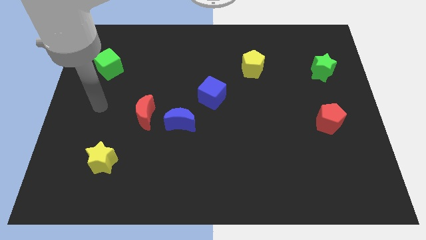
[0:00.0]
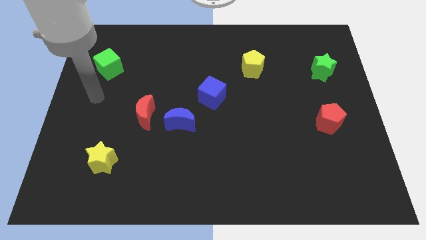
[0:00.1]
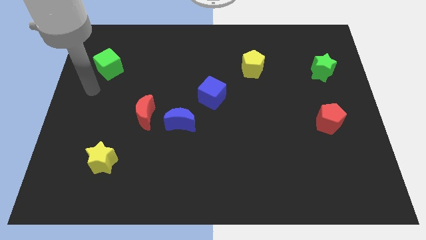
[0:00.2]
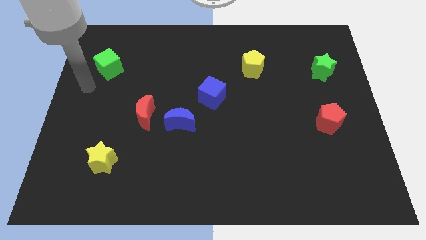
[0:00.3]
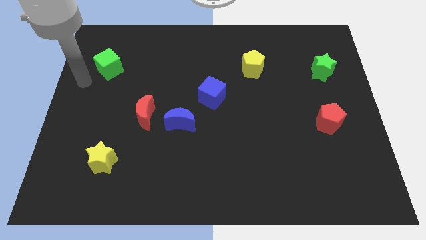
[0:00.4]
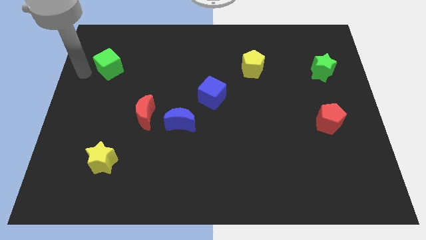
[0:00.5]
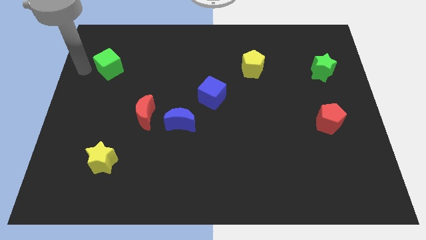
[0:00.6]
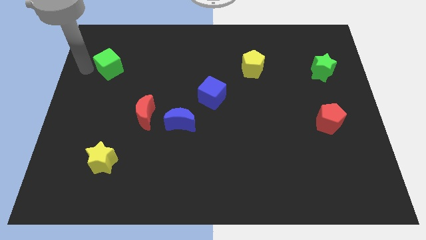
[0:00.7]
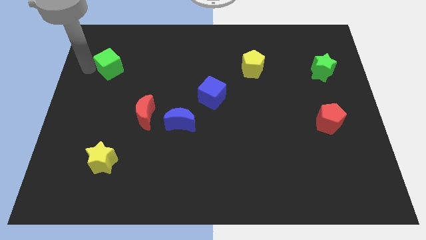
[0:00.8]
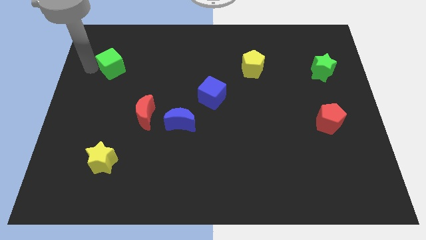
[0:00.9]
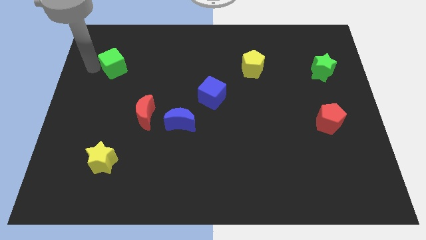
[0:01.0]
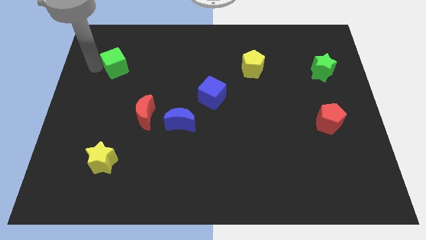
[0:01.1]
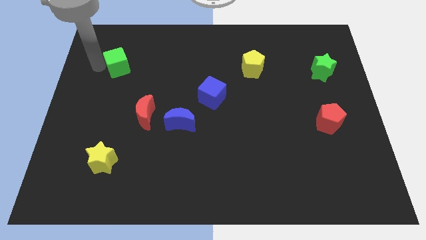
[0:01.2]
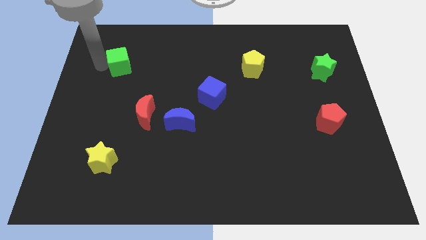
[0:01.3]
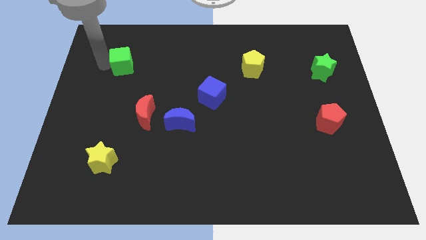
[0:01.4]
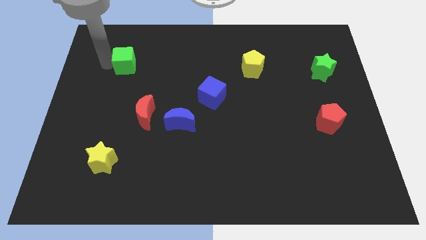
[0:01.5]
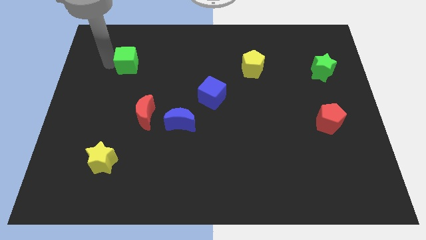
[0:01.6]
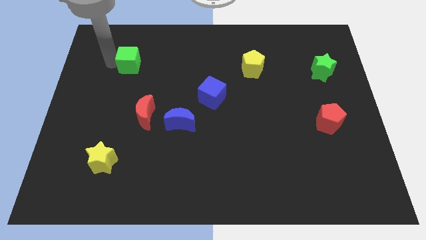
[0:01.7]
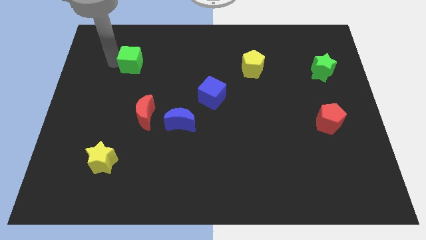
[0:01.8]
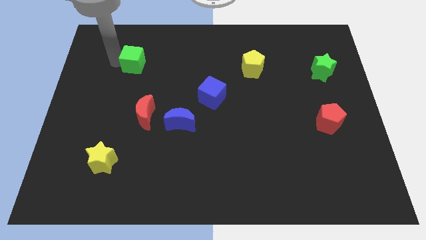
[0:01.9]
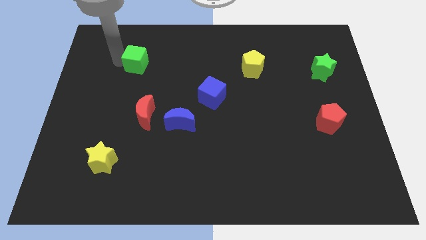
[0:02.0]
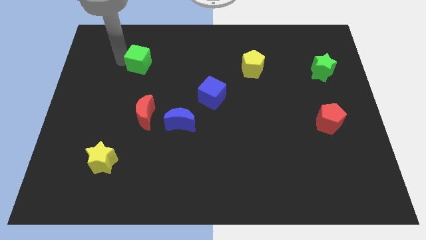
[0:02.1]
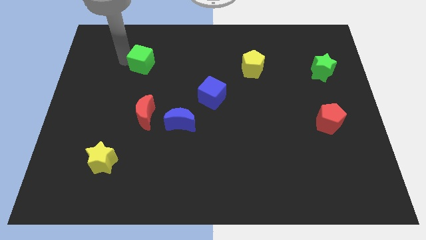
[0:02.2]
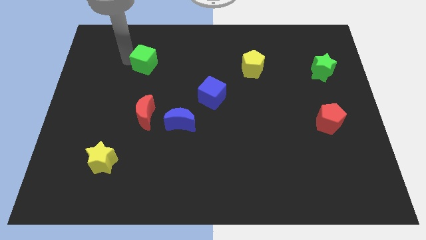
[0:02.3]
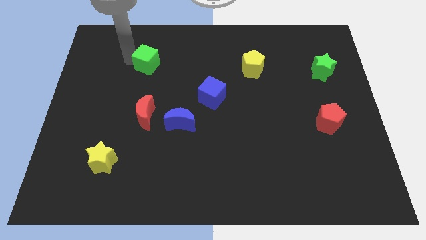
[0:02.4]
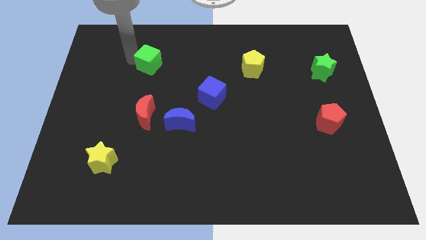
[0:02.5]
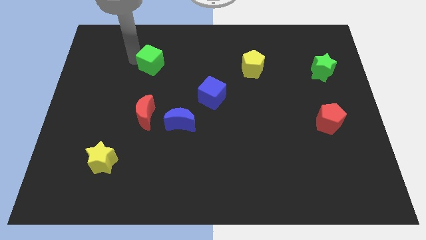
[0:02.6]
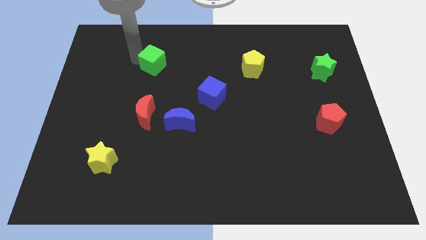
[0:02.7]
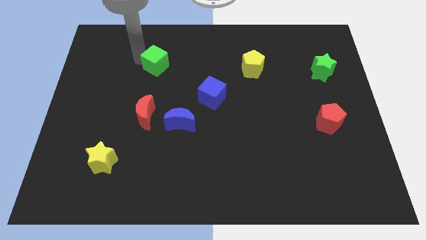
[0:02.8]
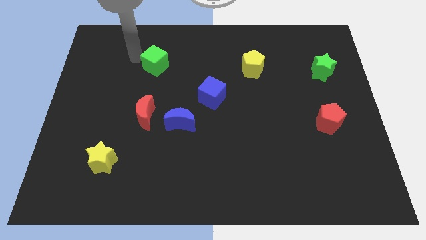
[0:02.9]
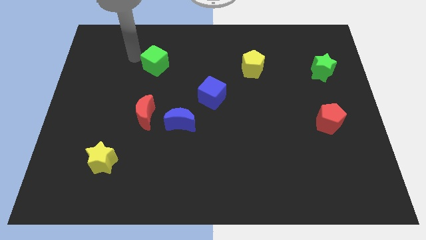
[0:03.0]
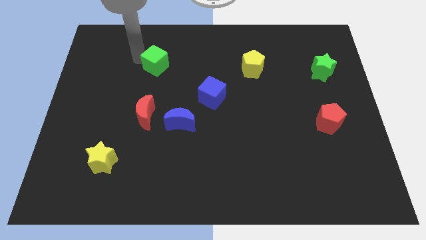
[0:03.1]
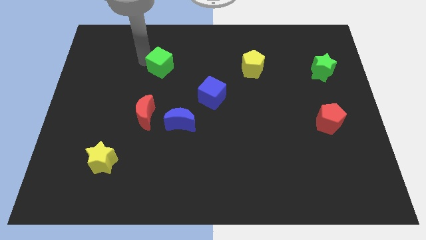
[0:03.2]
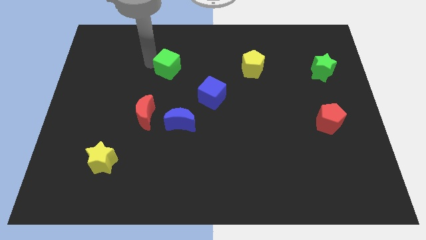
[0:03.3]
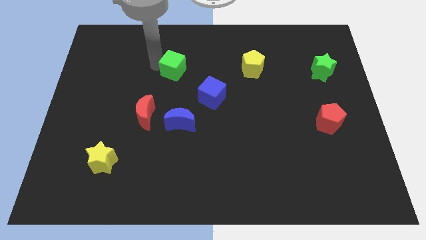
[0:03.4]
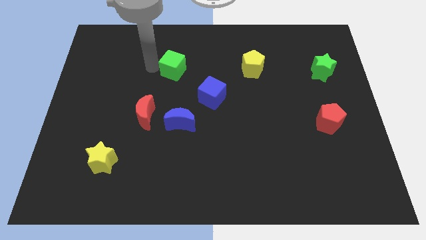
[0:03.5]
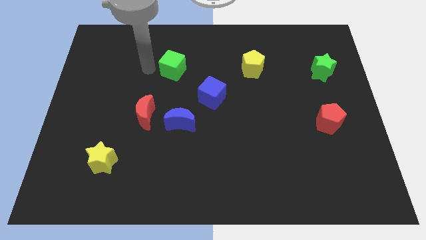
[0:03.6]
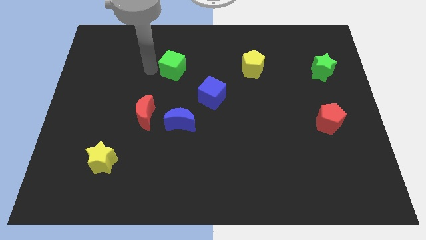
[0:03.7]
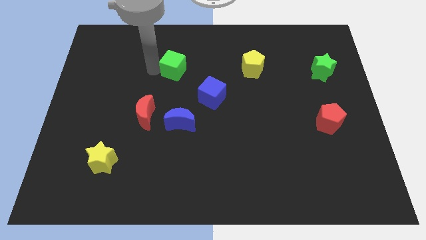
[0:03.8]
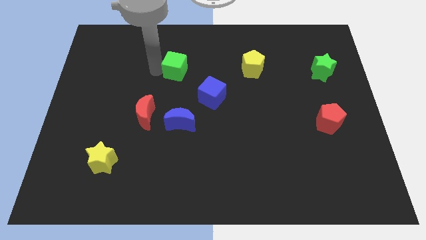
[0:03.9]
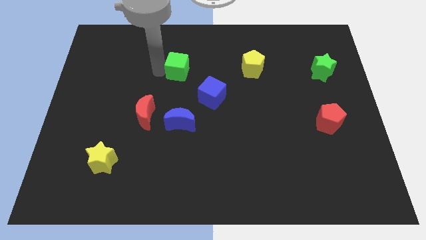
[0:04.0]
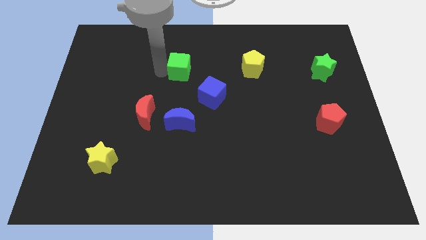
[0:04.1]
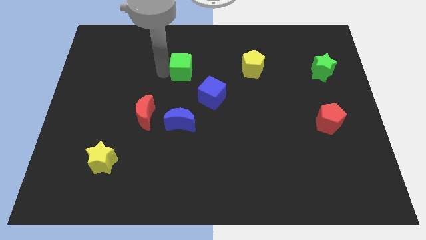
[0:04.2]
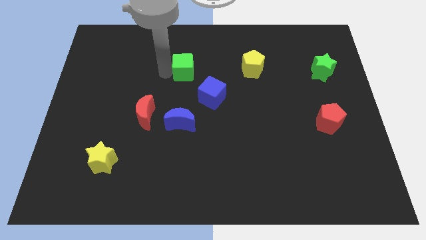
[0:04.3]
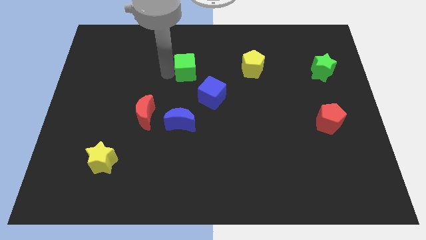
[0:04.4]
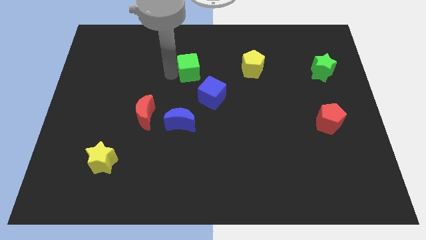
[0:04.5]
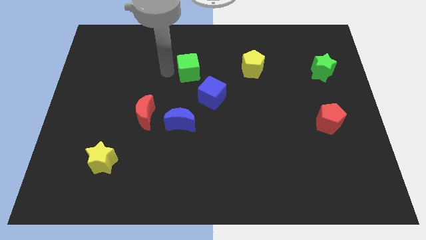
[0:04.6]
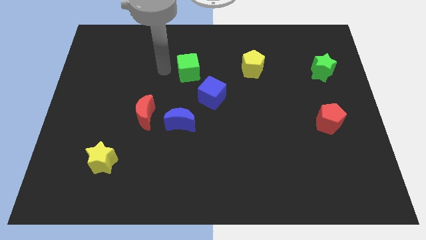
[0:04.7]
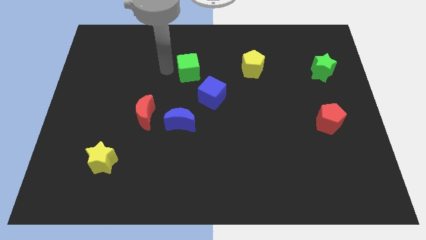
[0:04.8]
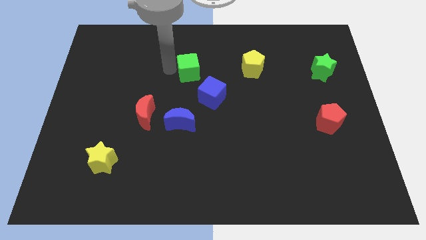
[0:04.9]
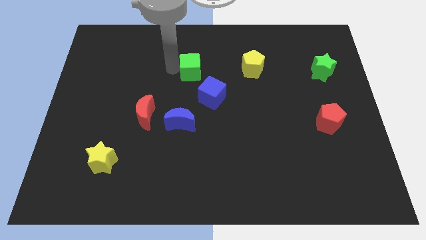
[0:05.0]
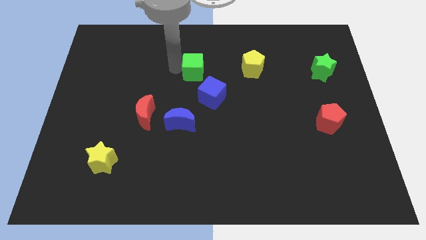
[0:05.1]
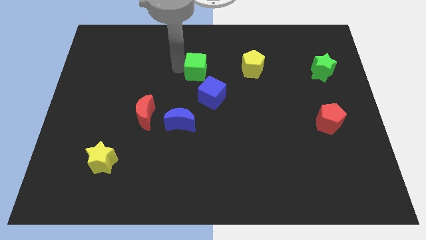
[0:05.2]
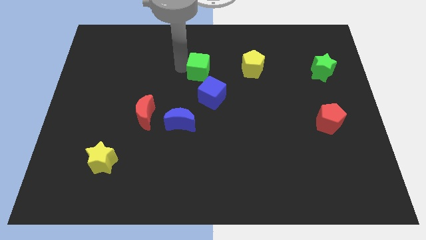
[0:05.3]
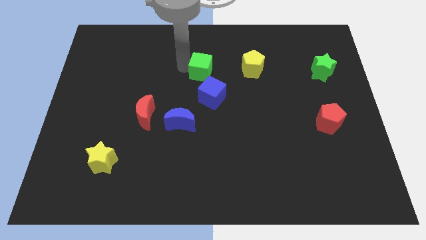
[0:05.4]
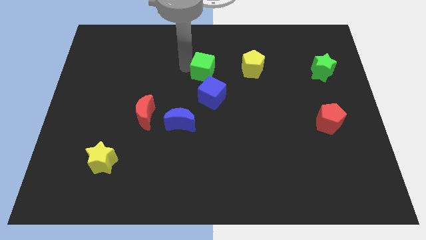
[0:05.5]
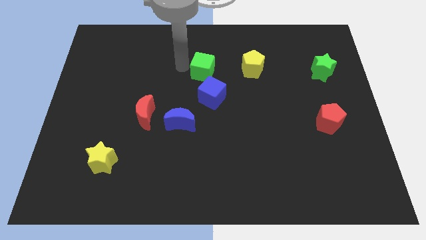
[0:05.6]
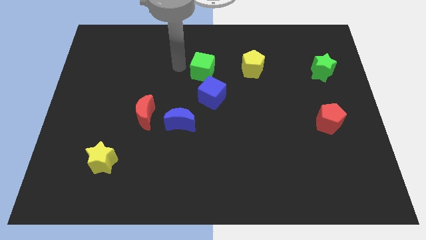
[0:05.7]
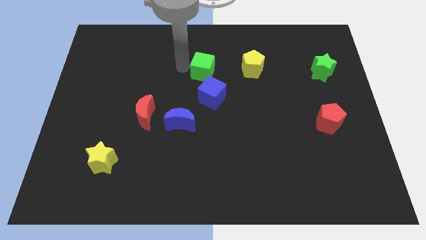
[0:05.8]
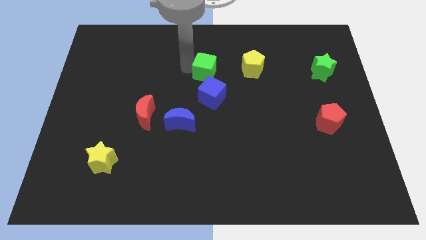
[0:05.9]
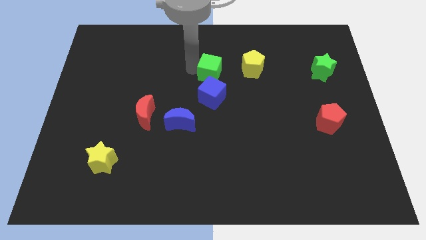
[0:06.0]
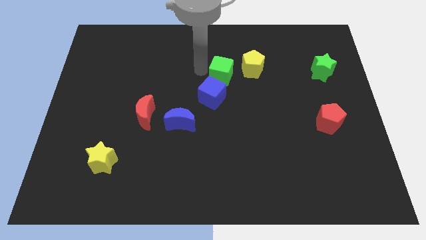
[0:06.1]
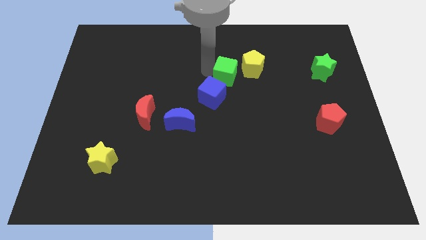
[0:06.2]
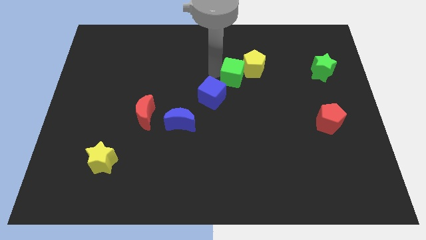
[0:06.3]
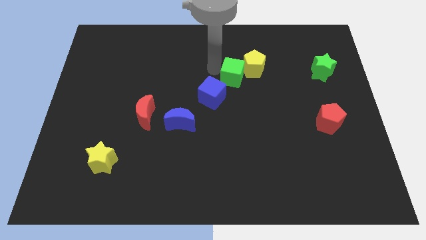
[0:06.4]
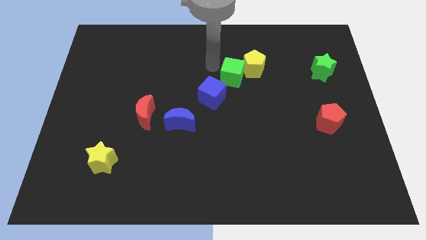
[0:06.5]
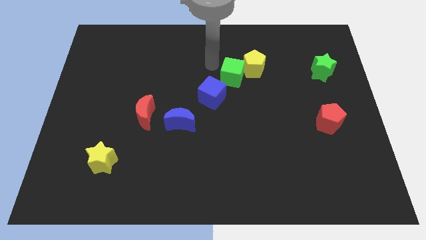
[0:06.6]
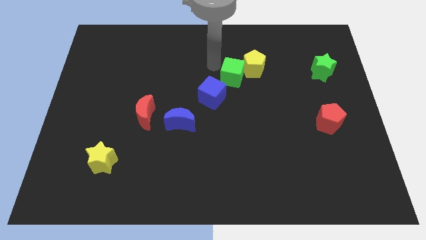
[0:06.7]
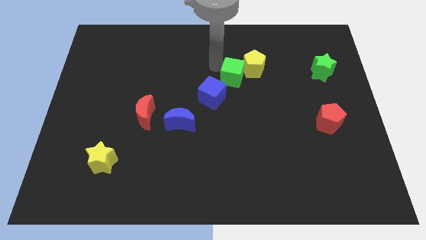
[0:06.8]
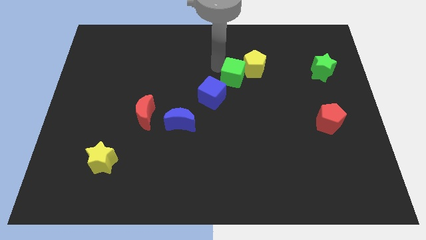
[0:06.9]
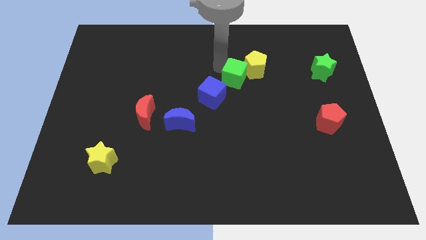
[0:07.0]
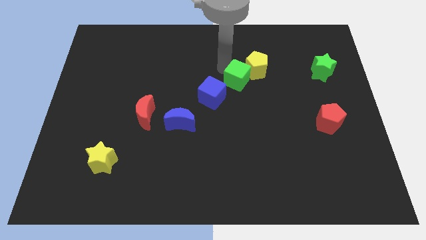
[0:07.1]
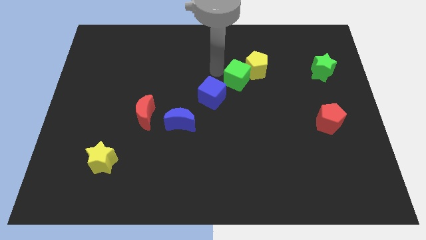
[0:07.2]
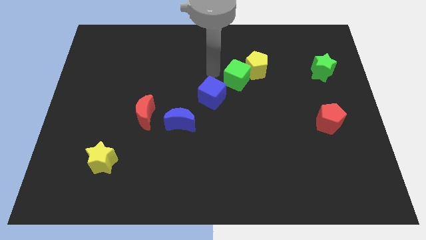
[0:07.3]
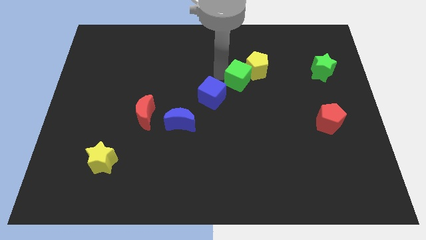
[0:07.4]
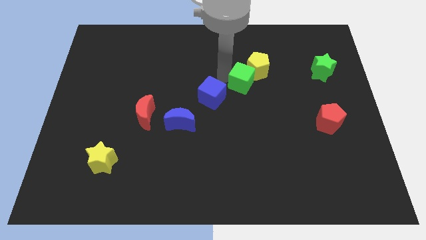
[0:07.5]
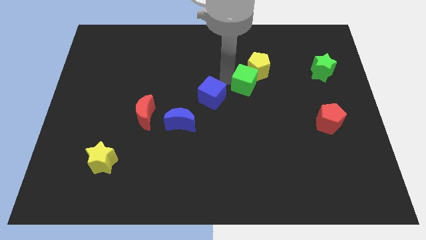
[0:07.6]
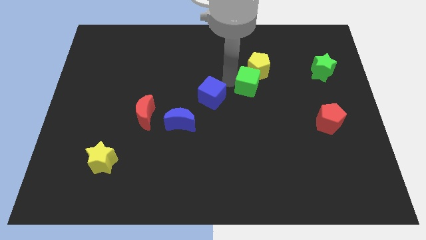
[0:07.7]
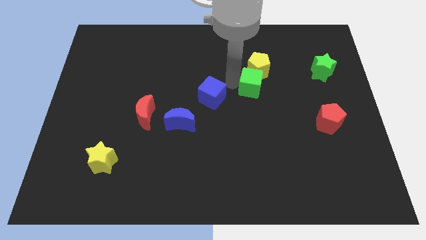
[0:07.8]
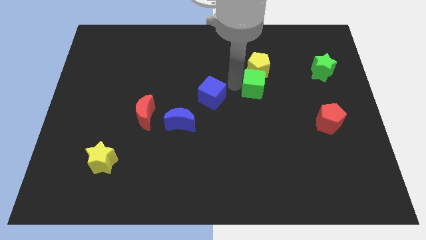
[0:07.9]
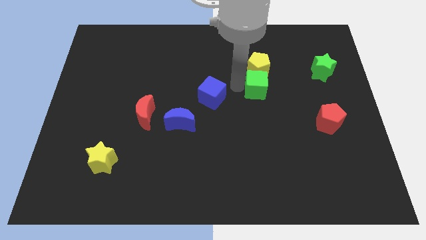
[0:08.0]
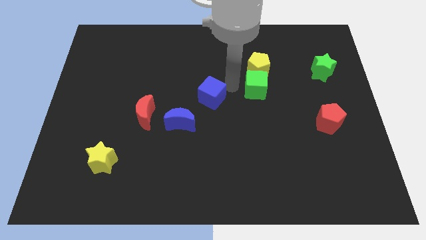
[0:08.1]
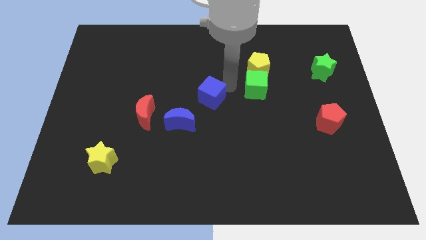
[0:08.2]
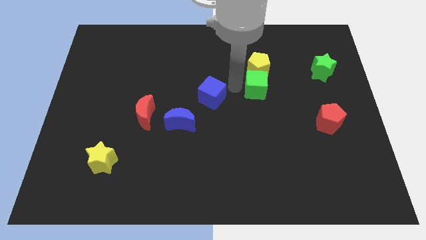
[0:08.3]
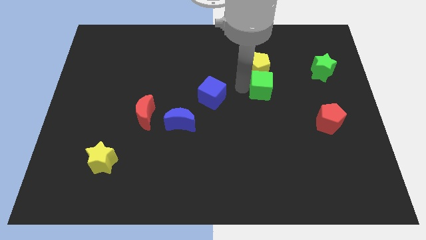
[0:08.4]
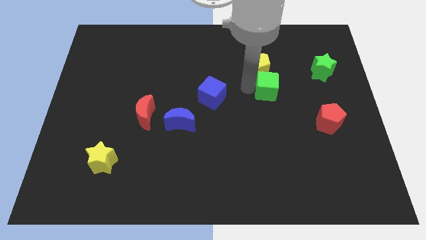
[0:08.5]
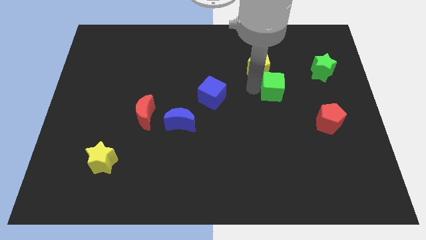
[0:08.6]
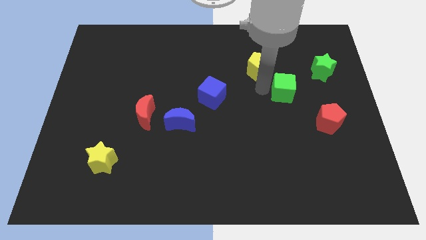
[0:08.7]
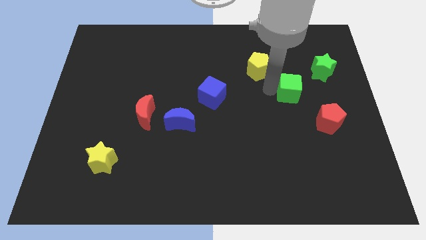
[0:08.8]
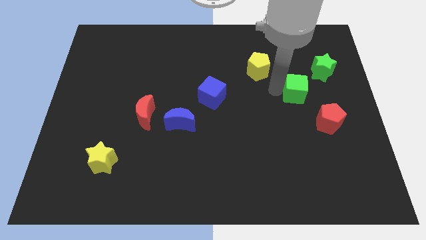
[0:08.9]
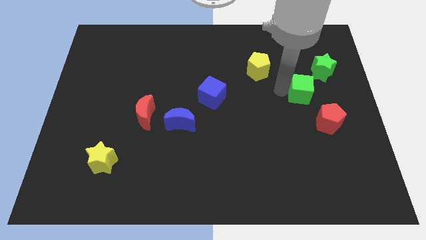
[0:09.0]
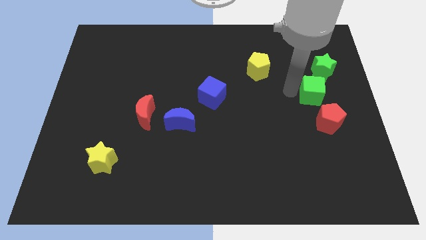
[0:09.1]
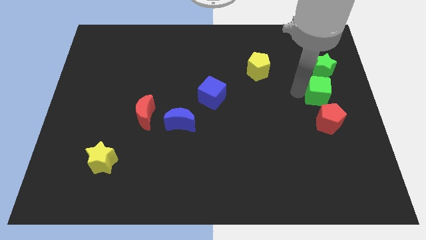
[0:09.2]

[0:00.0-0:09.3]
push the green cube to the center right
